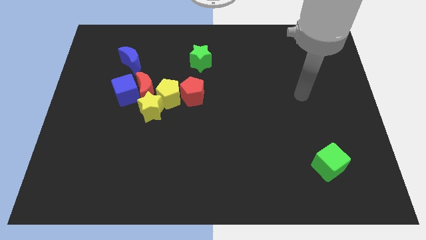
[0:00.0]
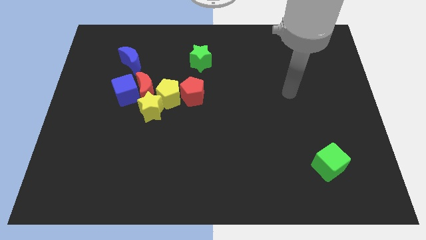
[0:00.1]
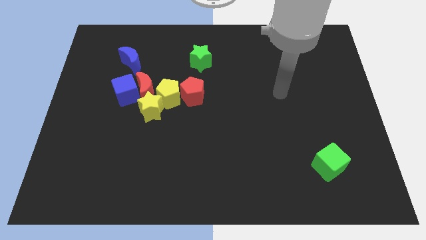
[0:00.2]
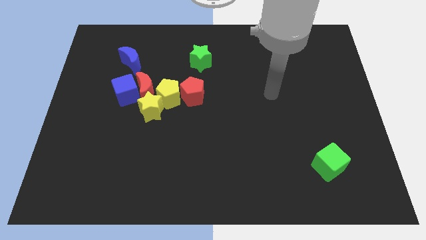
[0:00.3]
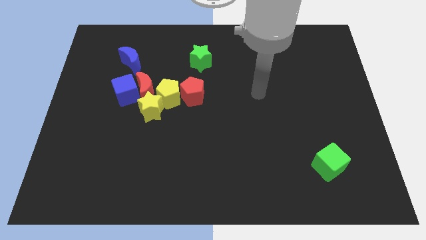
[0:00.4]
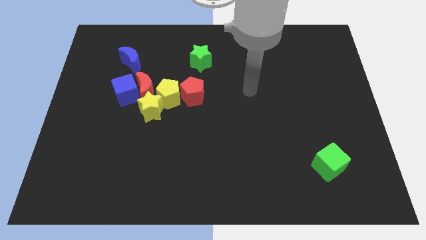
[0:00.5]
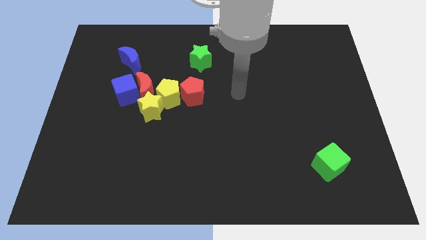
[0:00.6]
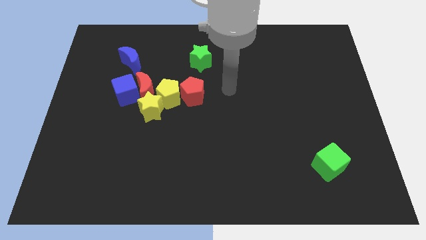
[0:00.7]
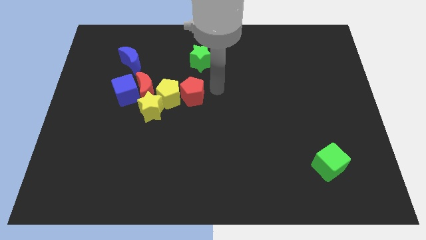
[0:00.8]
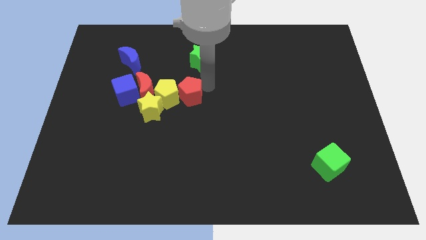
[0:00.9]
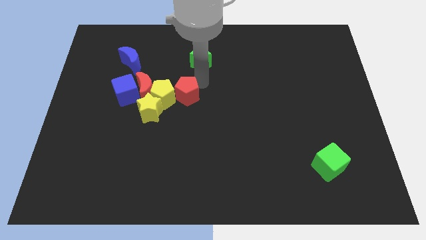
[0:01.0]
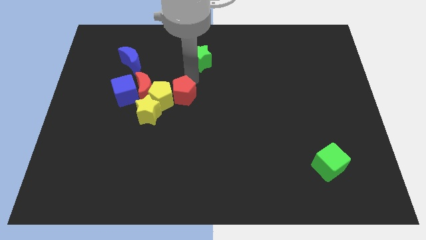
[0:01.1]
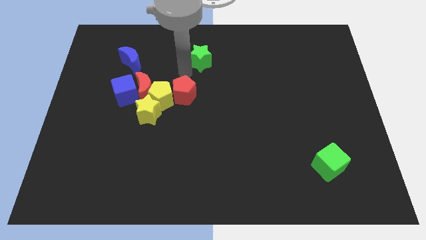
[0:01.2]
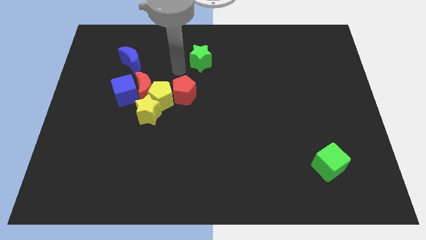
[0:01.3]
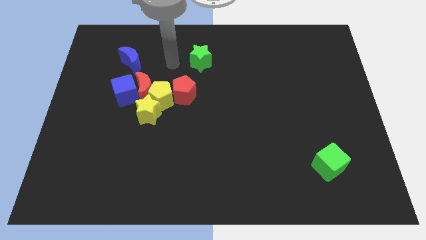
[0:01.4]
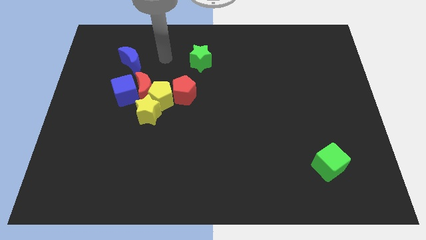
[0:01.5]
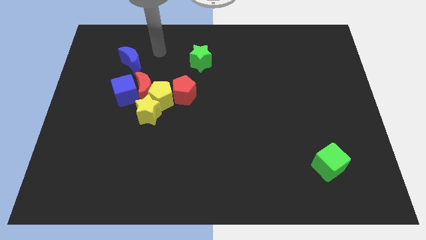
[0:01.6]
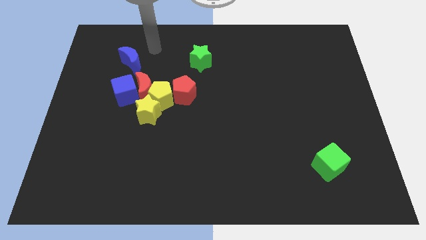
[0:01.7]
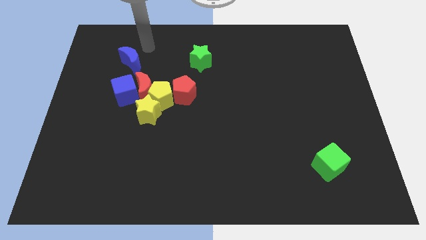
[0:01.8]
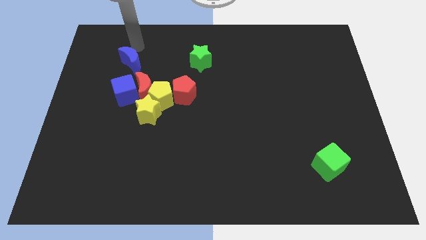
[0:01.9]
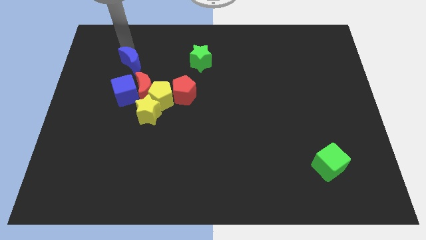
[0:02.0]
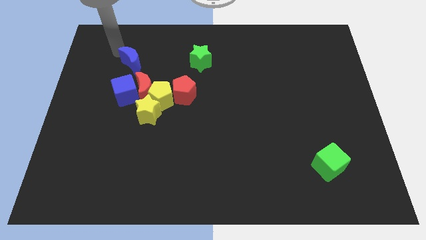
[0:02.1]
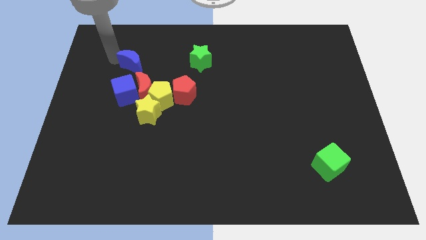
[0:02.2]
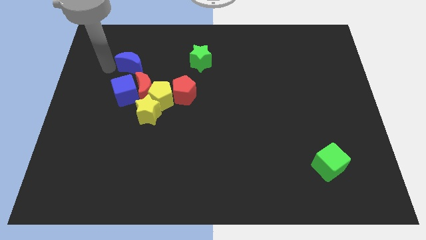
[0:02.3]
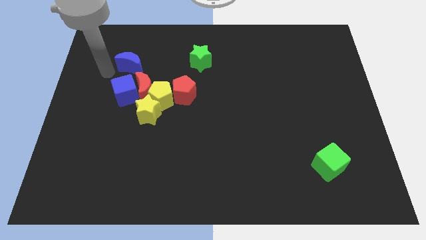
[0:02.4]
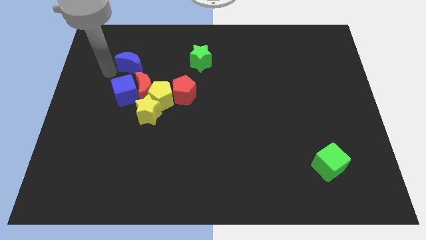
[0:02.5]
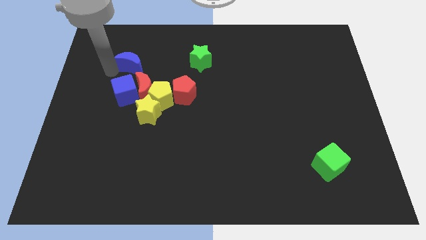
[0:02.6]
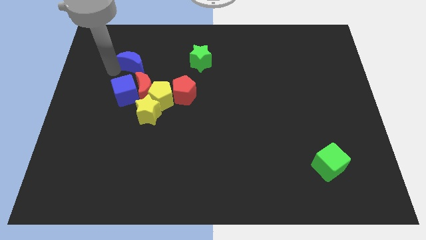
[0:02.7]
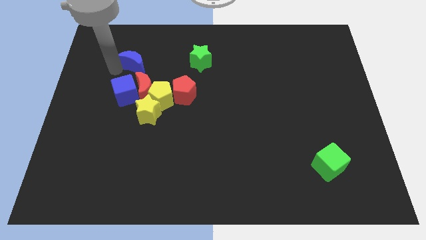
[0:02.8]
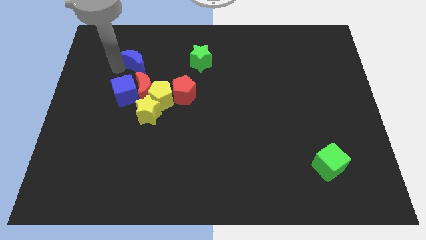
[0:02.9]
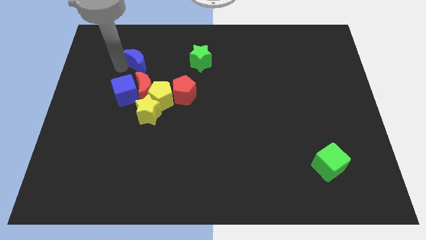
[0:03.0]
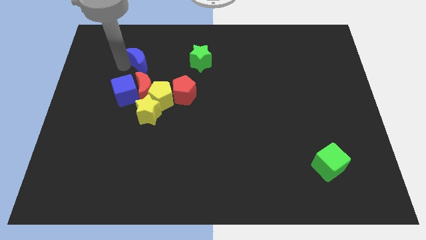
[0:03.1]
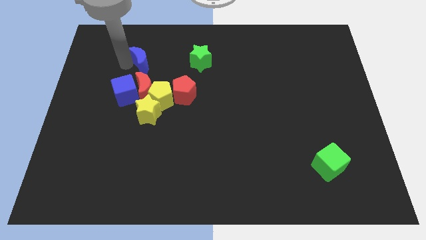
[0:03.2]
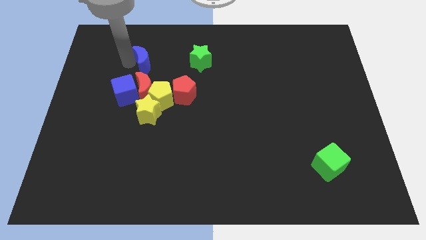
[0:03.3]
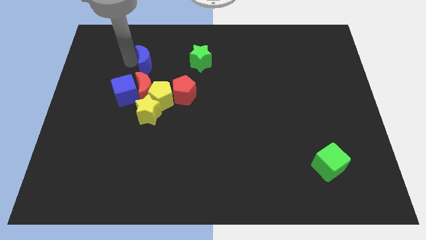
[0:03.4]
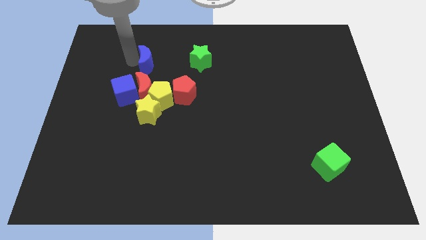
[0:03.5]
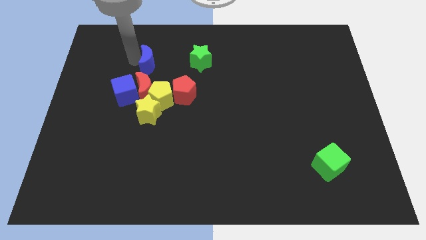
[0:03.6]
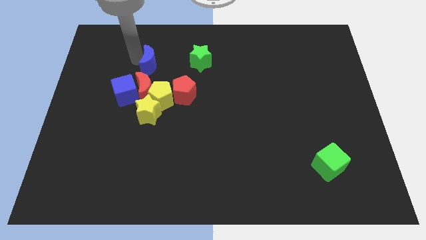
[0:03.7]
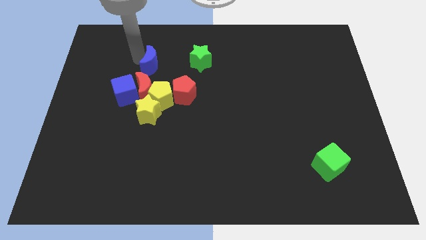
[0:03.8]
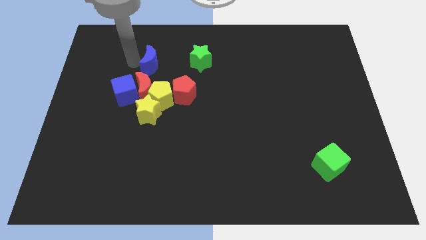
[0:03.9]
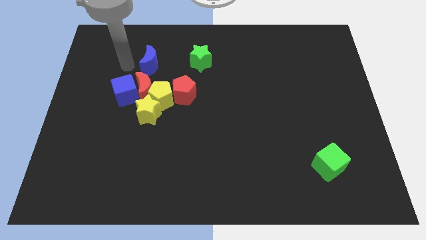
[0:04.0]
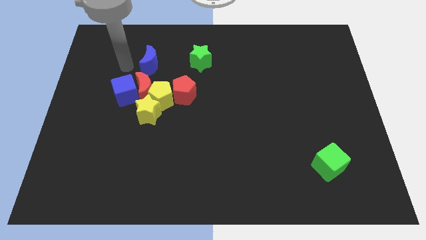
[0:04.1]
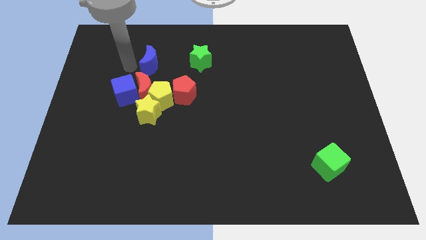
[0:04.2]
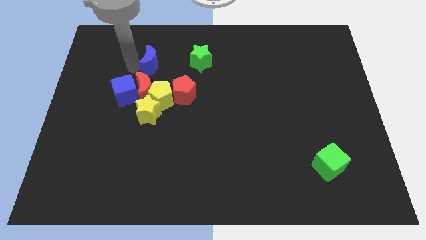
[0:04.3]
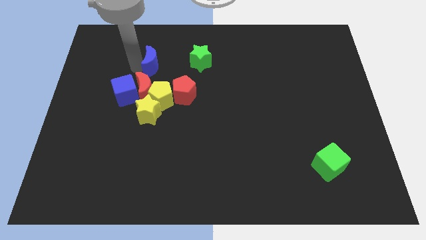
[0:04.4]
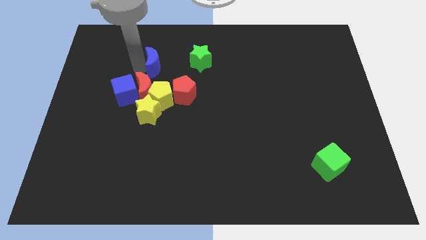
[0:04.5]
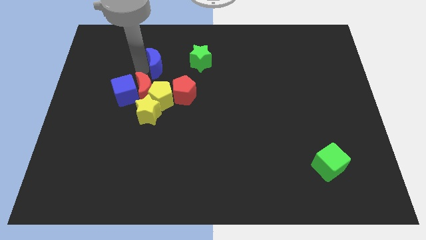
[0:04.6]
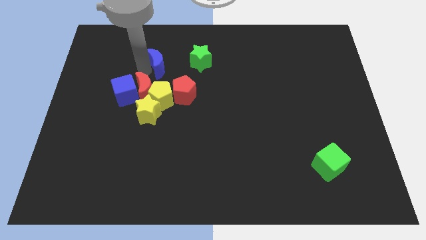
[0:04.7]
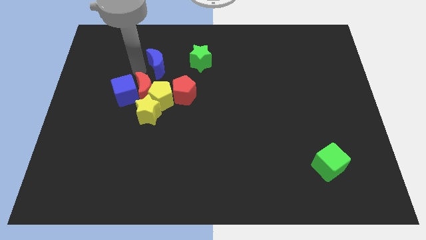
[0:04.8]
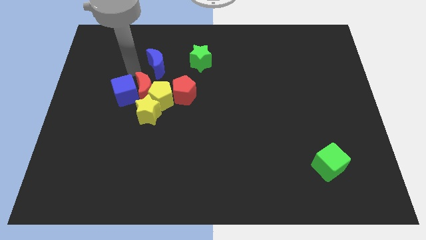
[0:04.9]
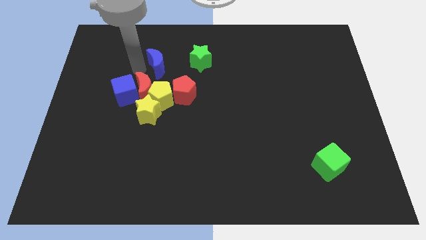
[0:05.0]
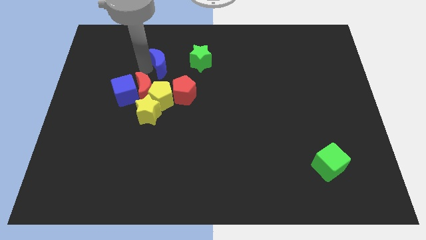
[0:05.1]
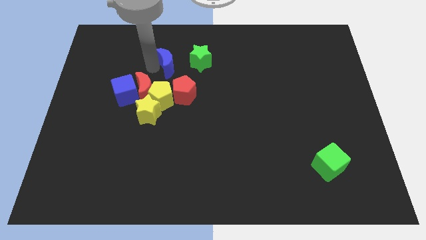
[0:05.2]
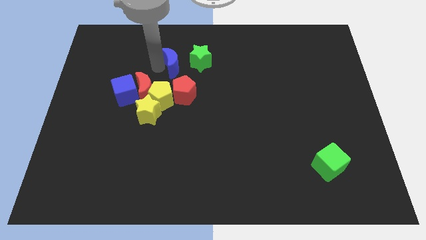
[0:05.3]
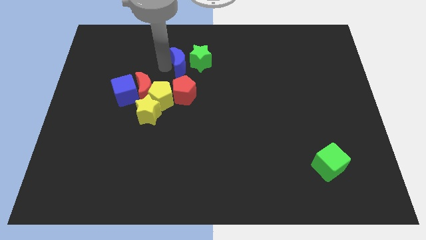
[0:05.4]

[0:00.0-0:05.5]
put the blue moon towards the green star

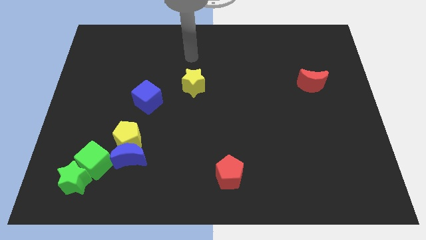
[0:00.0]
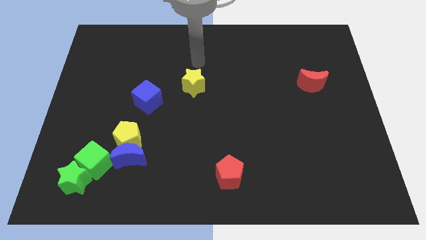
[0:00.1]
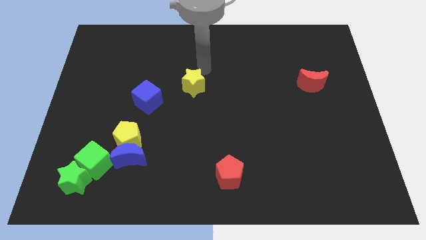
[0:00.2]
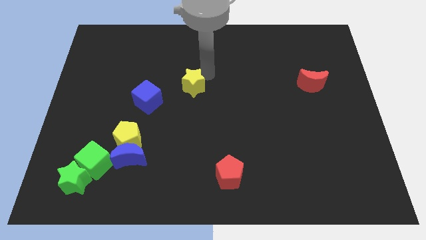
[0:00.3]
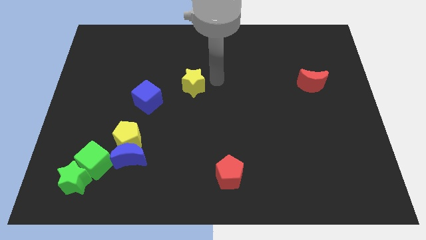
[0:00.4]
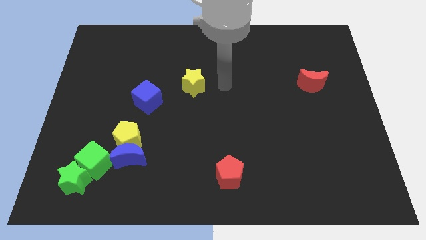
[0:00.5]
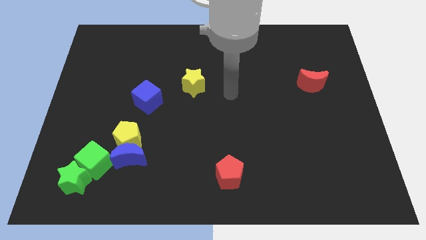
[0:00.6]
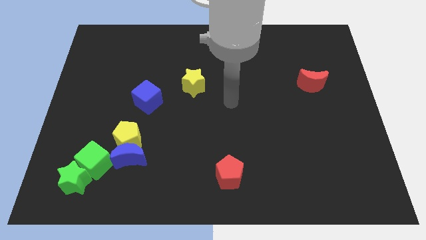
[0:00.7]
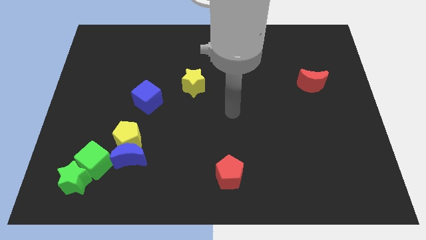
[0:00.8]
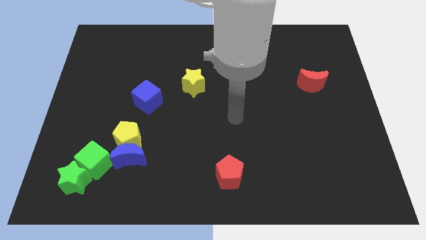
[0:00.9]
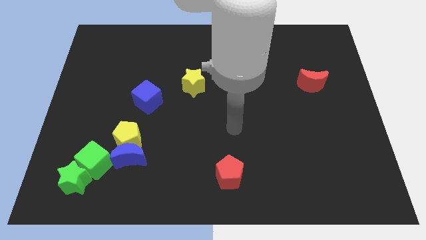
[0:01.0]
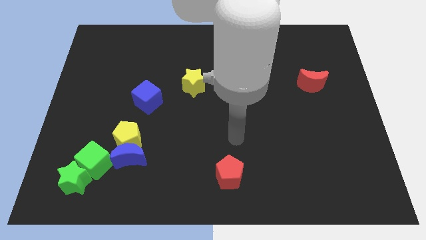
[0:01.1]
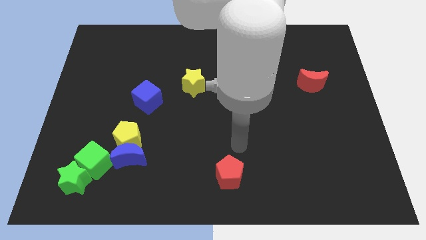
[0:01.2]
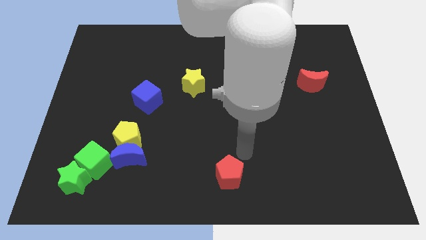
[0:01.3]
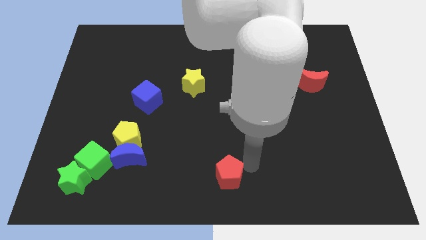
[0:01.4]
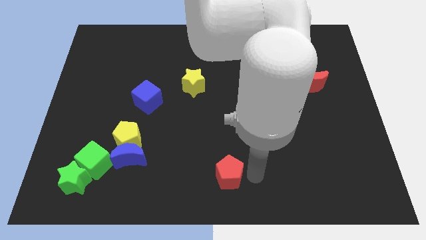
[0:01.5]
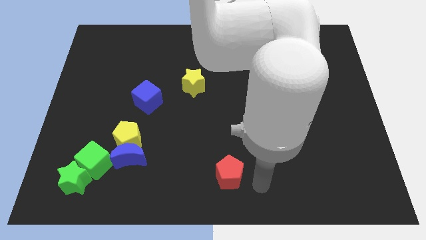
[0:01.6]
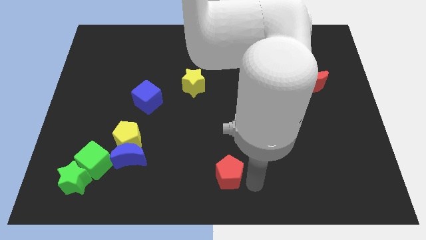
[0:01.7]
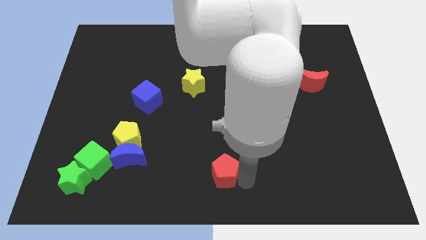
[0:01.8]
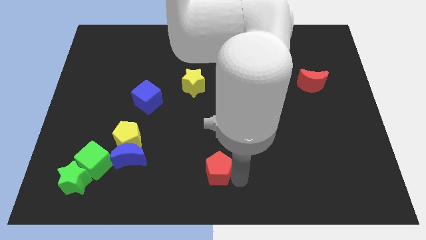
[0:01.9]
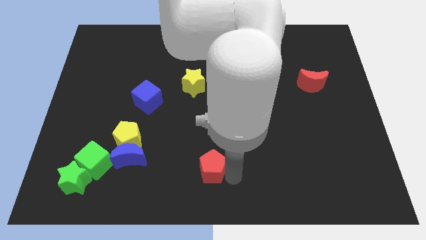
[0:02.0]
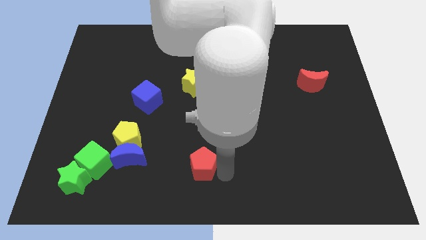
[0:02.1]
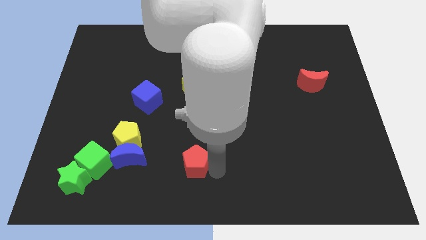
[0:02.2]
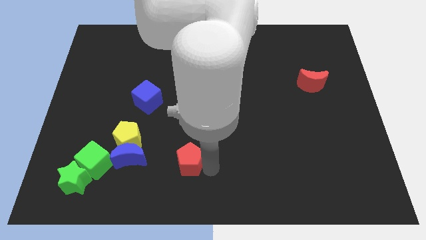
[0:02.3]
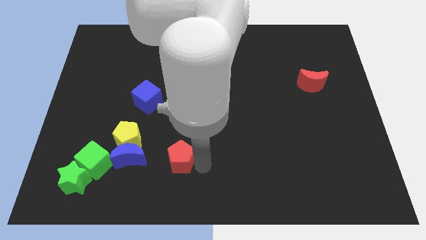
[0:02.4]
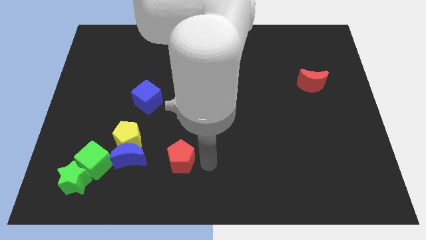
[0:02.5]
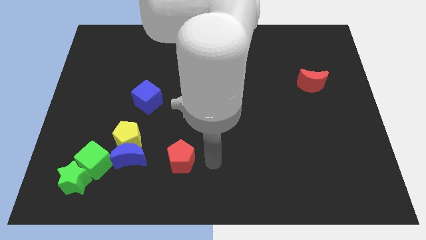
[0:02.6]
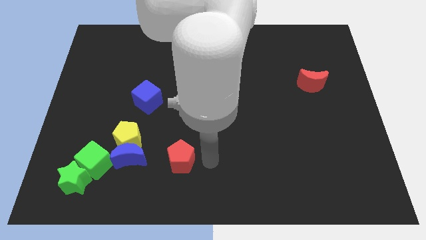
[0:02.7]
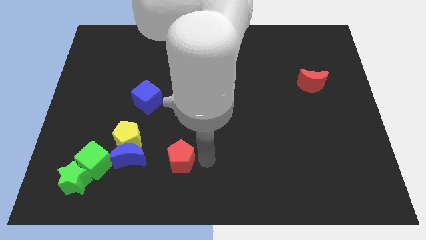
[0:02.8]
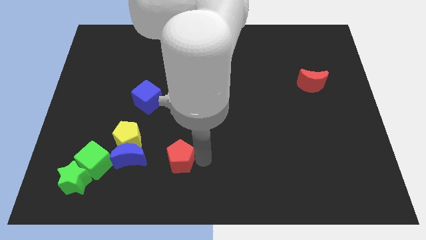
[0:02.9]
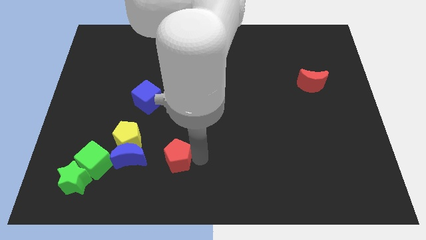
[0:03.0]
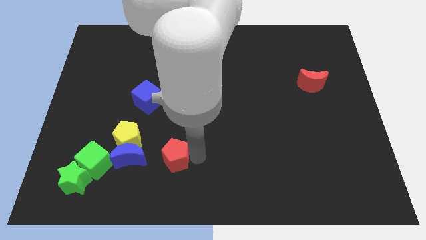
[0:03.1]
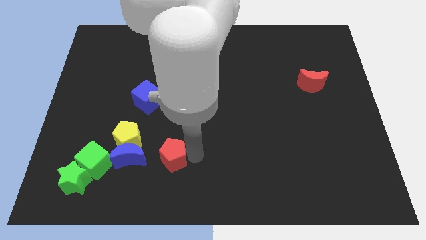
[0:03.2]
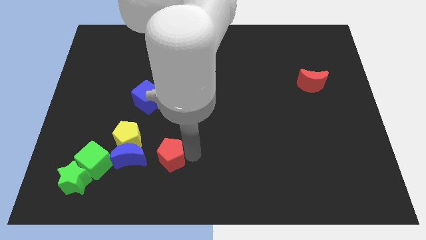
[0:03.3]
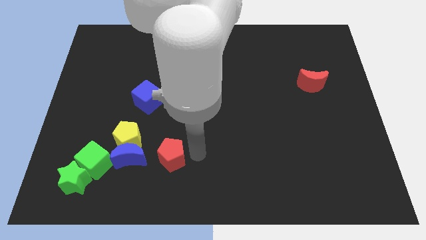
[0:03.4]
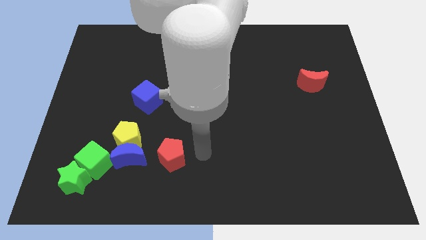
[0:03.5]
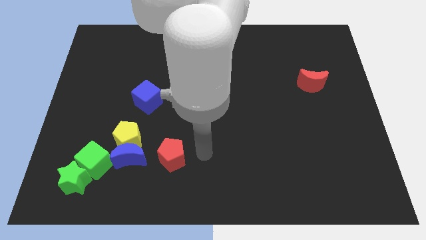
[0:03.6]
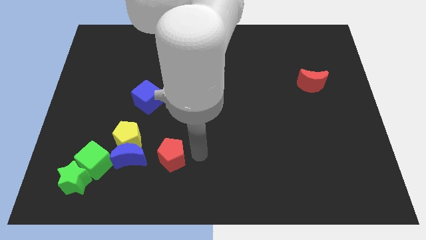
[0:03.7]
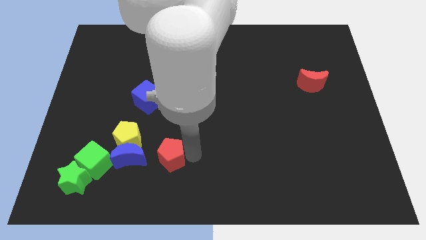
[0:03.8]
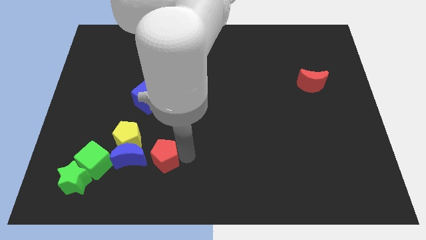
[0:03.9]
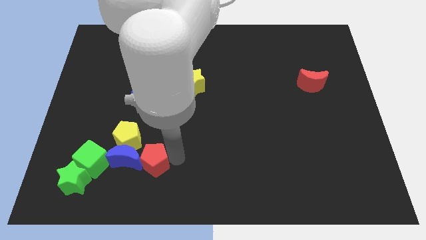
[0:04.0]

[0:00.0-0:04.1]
slide the red pentagon close to the blue moon
